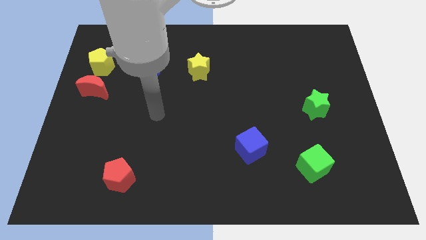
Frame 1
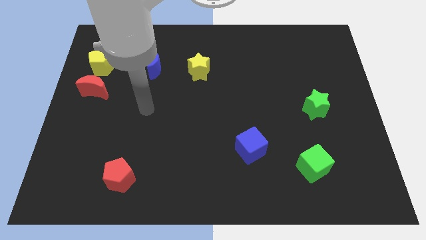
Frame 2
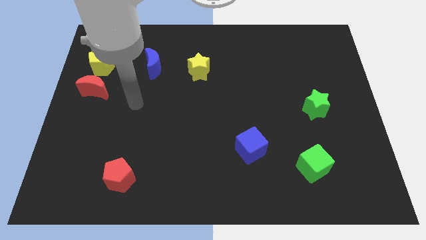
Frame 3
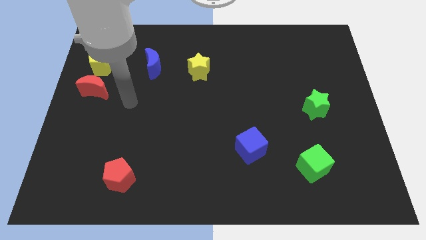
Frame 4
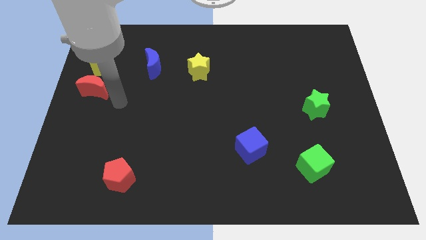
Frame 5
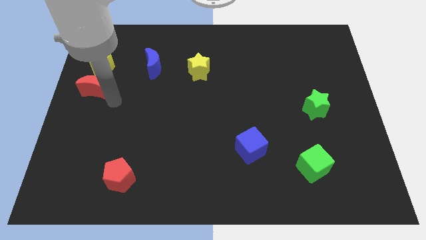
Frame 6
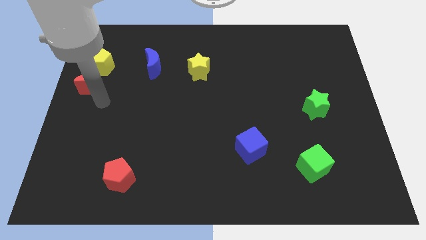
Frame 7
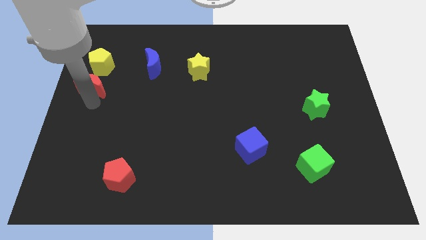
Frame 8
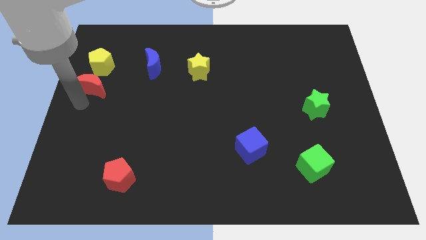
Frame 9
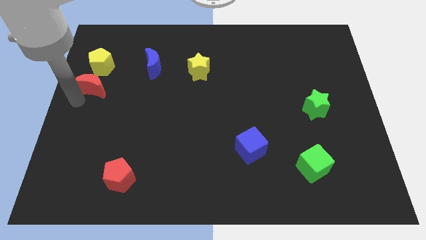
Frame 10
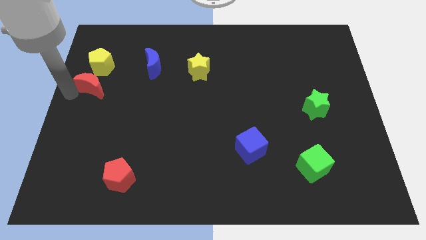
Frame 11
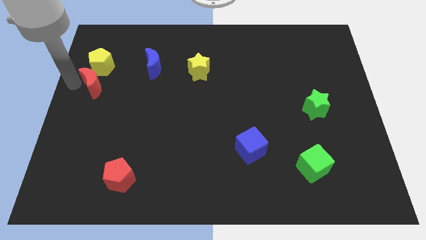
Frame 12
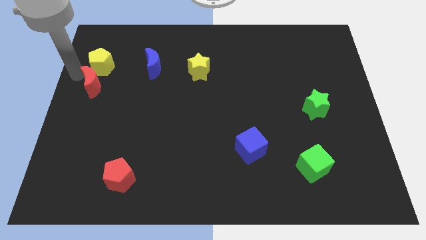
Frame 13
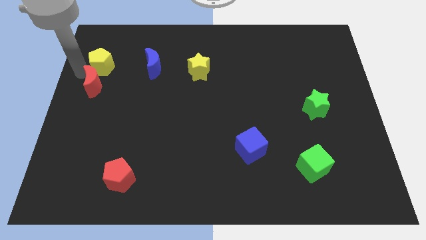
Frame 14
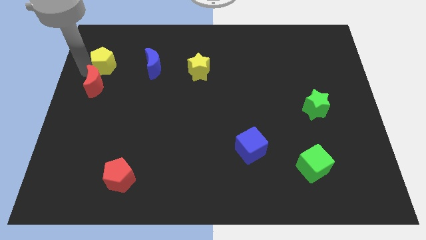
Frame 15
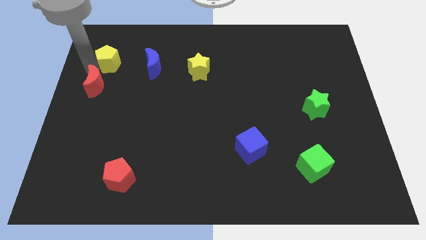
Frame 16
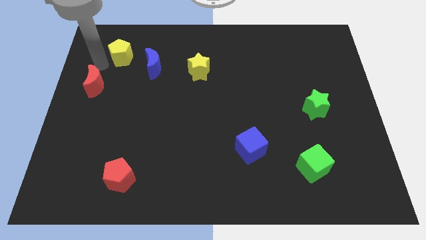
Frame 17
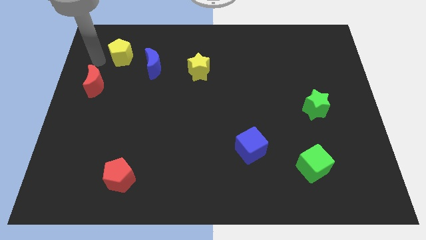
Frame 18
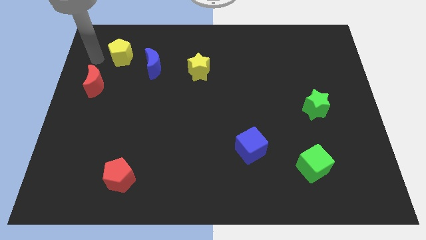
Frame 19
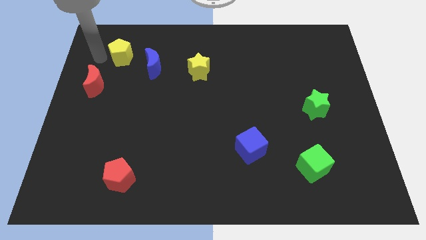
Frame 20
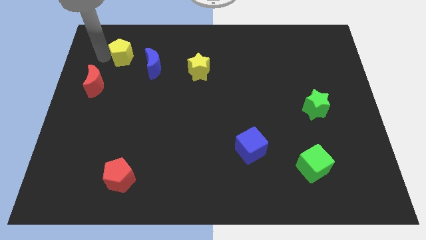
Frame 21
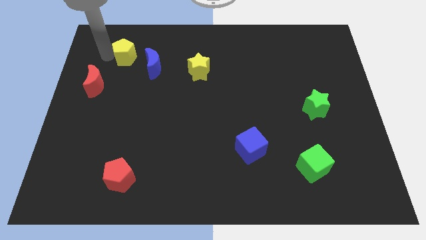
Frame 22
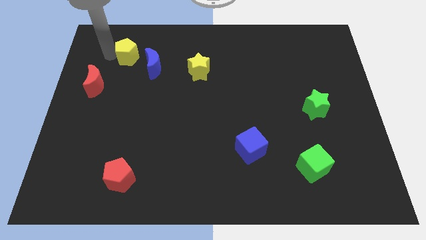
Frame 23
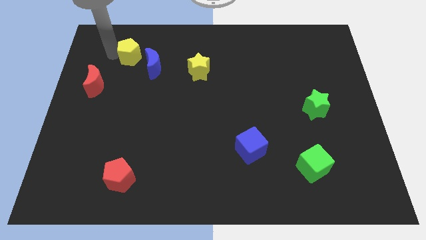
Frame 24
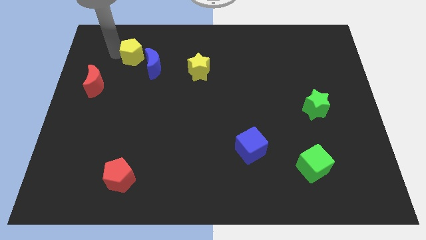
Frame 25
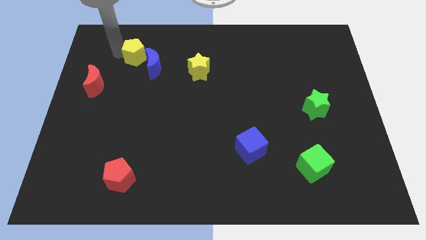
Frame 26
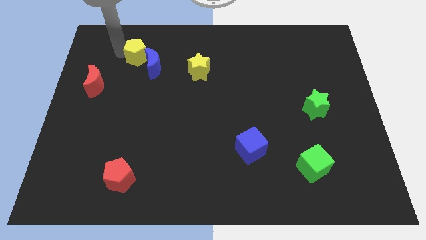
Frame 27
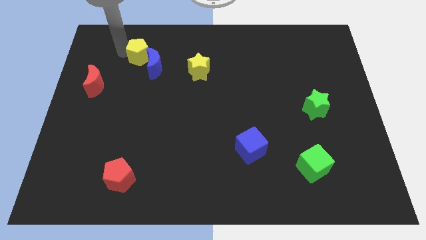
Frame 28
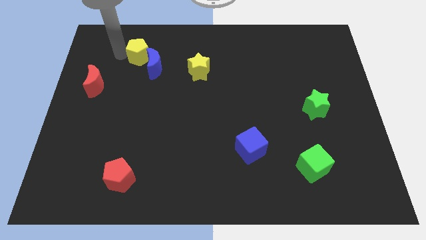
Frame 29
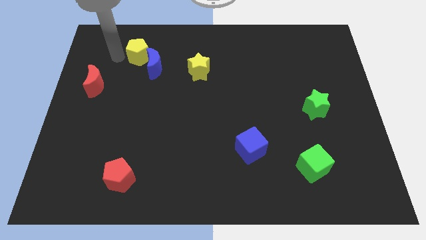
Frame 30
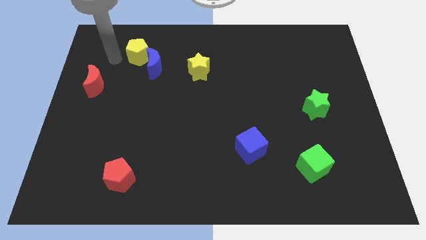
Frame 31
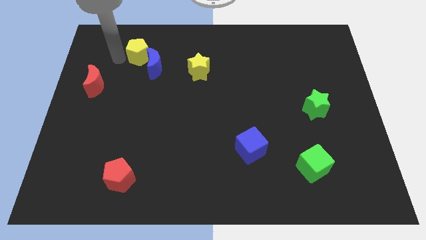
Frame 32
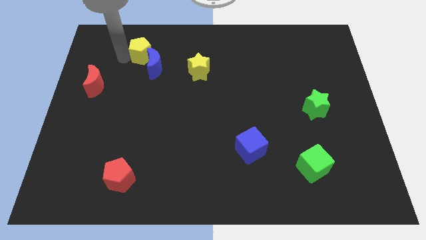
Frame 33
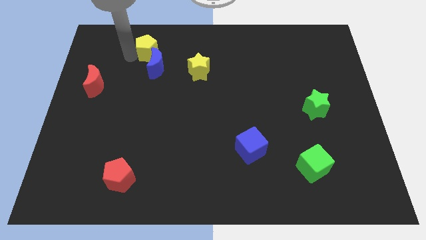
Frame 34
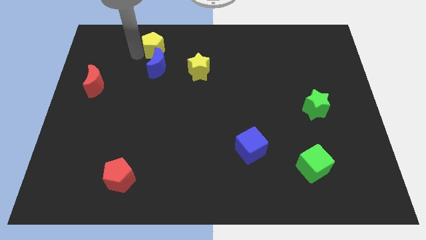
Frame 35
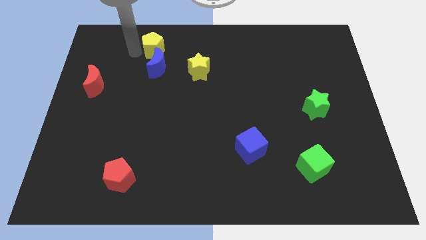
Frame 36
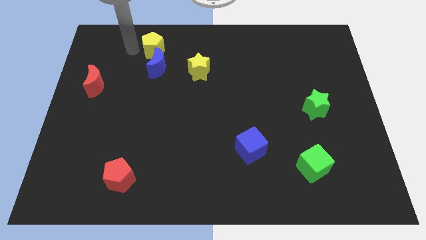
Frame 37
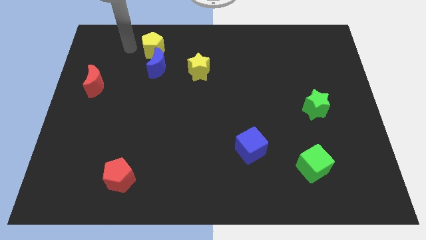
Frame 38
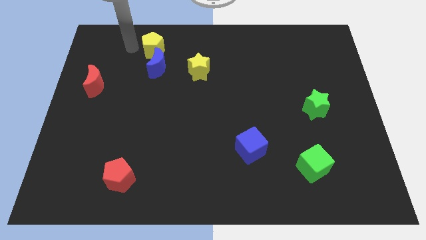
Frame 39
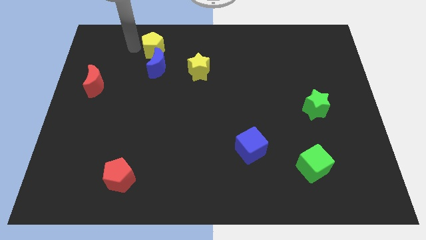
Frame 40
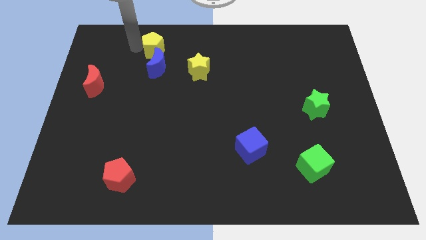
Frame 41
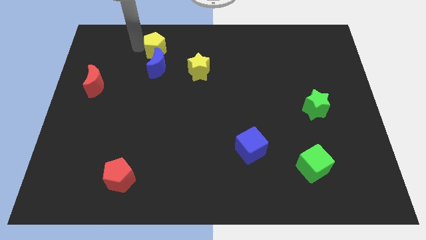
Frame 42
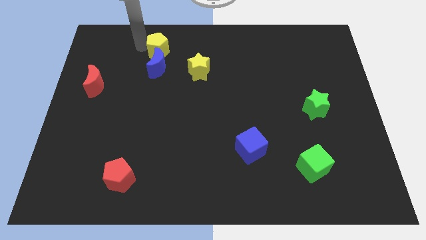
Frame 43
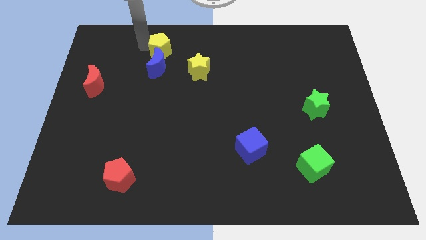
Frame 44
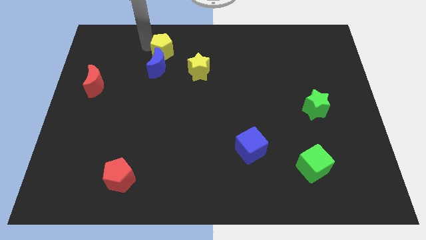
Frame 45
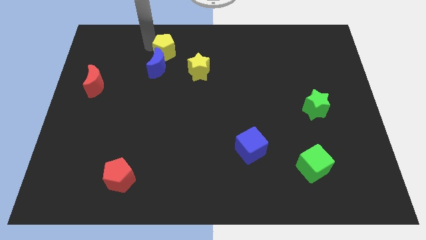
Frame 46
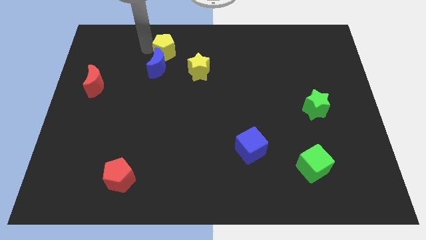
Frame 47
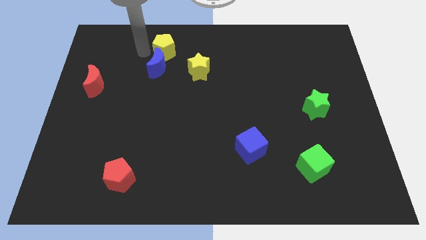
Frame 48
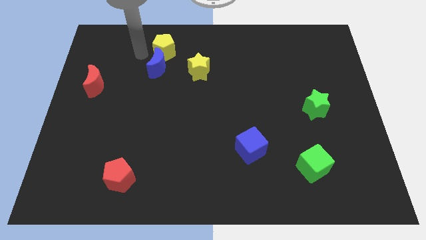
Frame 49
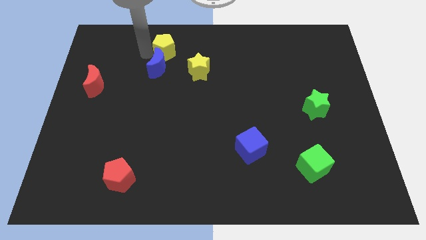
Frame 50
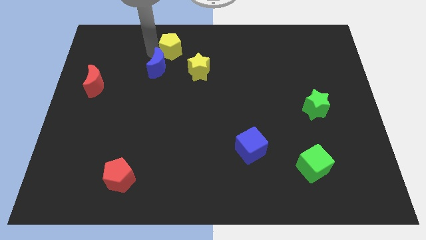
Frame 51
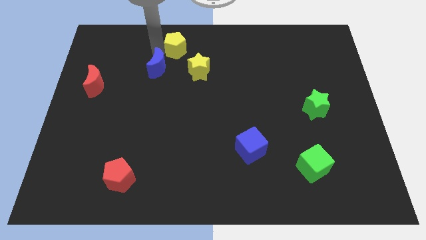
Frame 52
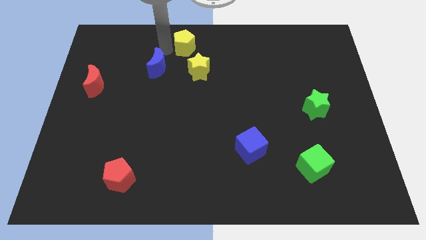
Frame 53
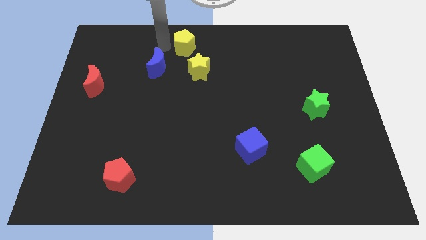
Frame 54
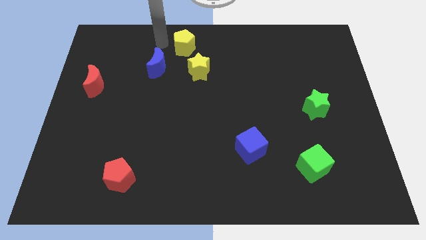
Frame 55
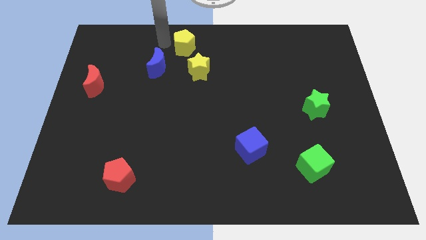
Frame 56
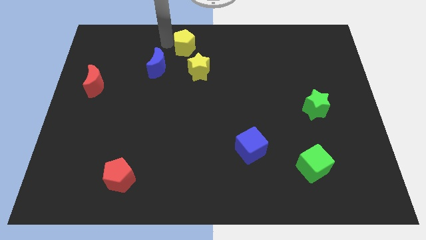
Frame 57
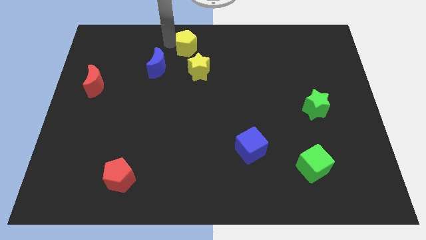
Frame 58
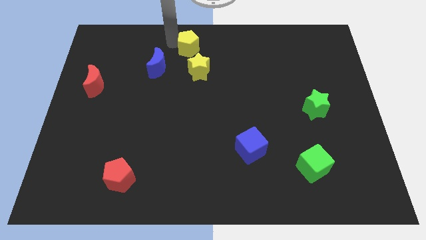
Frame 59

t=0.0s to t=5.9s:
push the yellow pentagon to the right

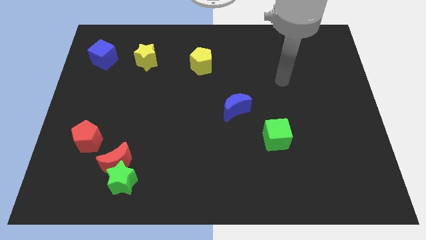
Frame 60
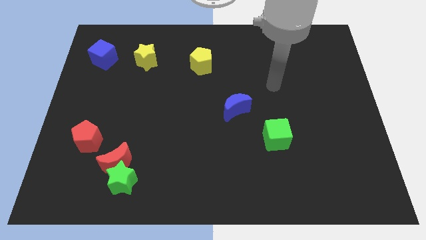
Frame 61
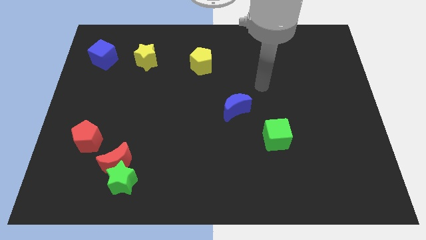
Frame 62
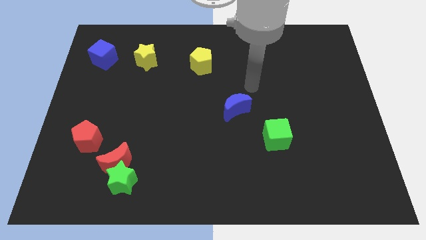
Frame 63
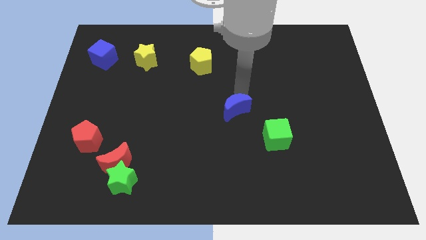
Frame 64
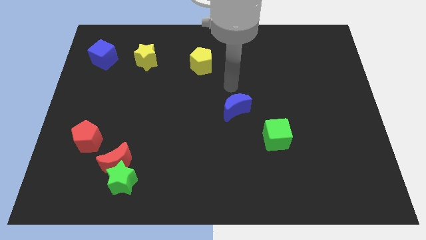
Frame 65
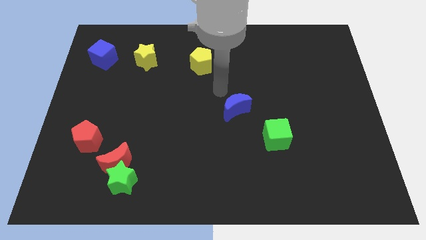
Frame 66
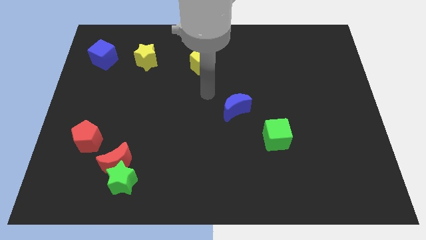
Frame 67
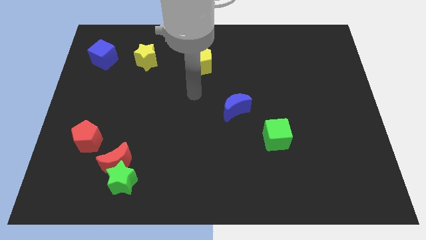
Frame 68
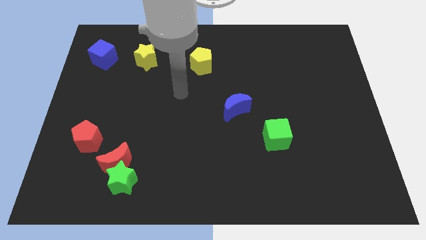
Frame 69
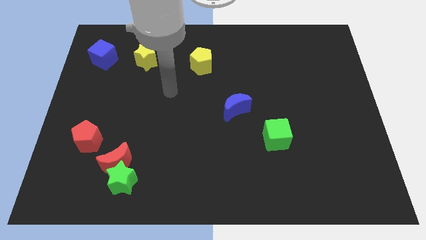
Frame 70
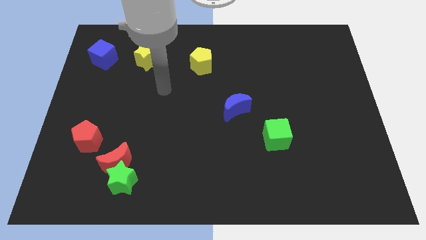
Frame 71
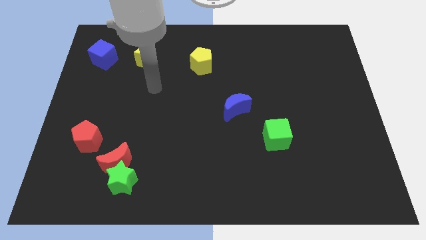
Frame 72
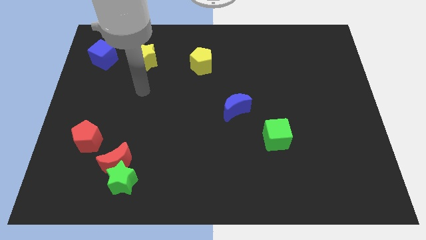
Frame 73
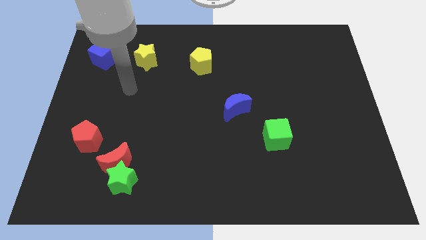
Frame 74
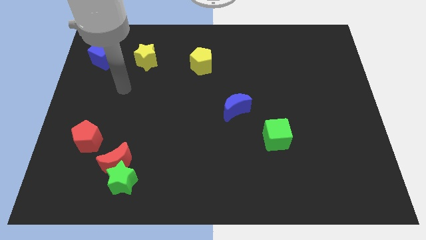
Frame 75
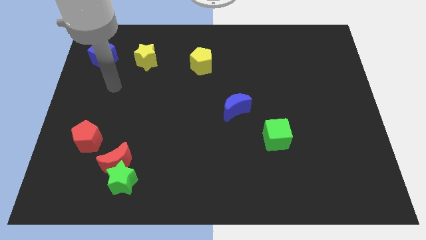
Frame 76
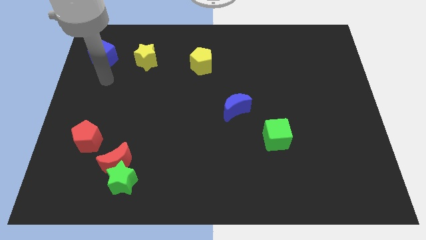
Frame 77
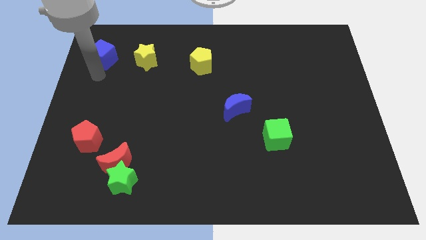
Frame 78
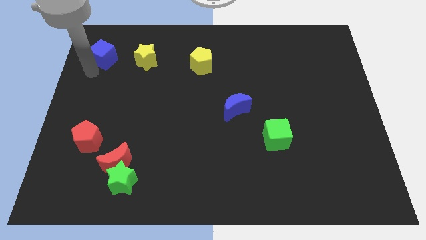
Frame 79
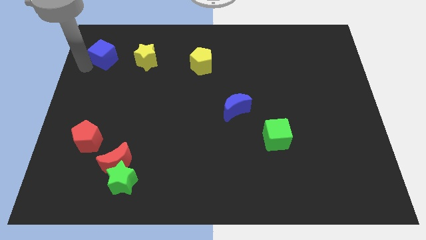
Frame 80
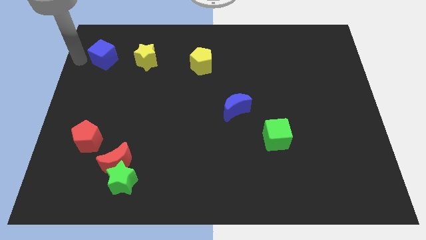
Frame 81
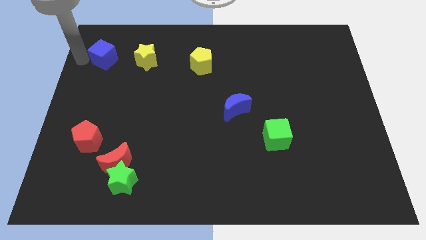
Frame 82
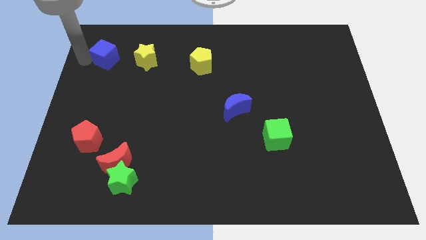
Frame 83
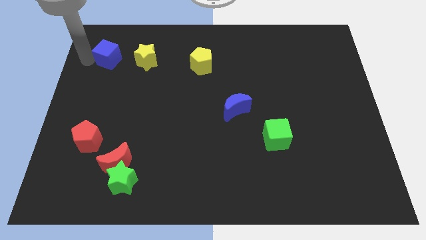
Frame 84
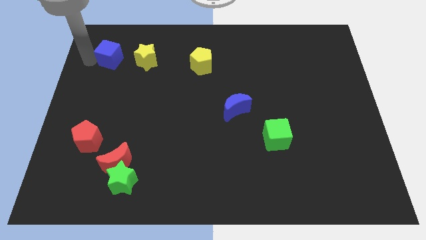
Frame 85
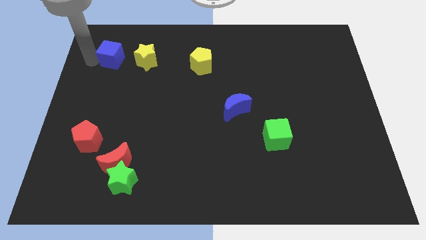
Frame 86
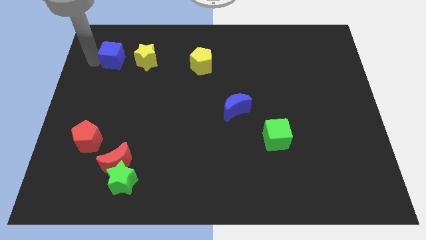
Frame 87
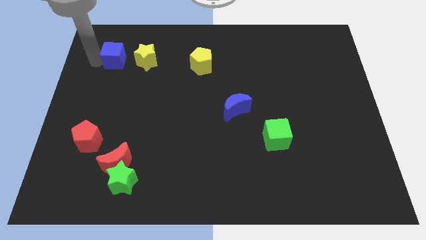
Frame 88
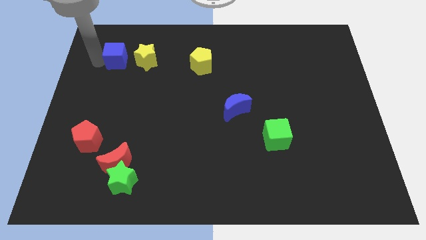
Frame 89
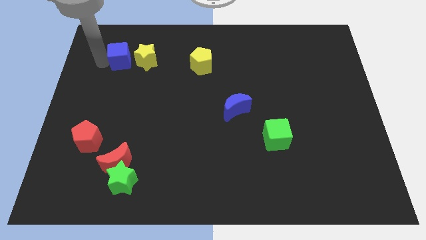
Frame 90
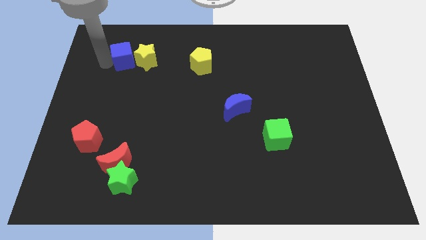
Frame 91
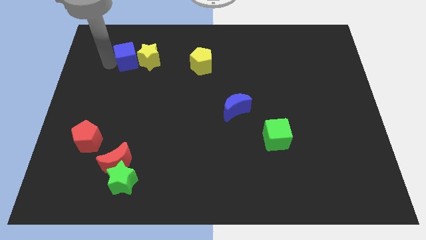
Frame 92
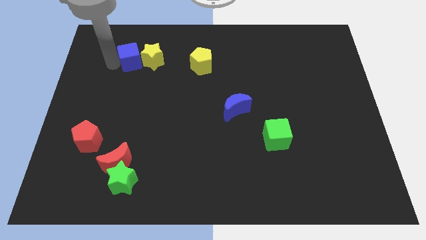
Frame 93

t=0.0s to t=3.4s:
move the blue cube to the right somewhat
